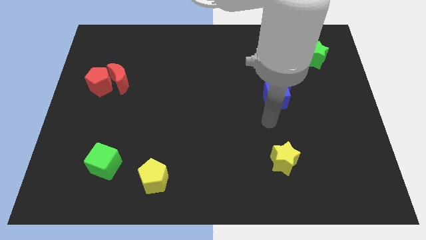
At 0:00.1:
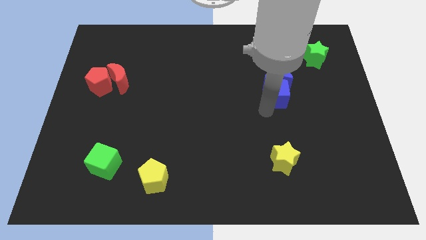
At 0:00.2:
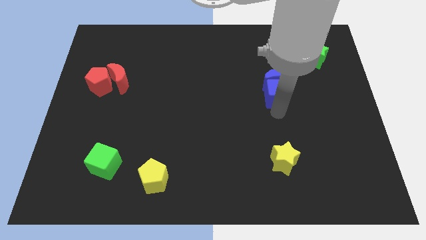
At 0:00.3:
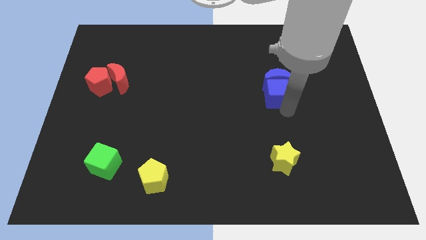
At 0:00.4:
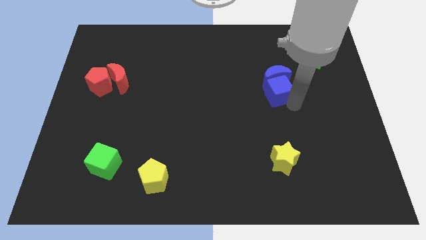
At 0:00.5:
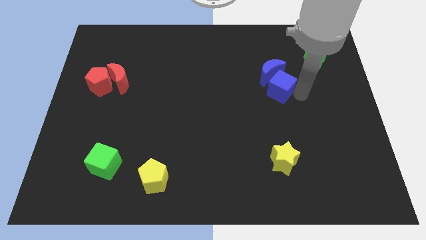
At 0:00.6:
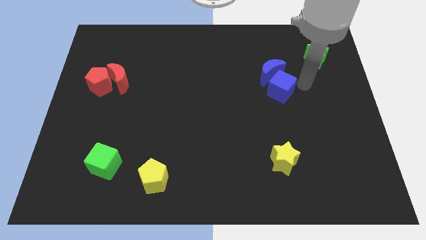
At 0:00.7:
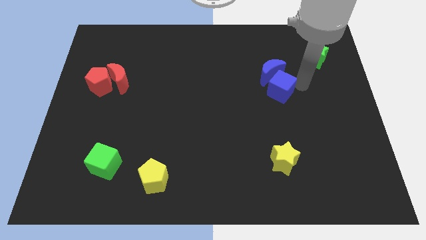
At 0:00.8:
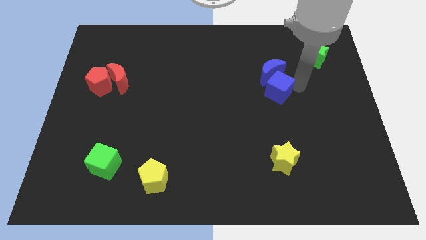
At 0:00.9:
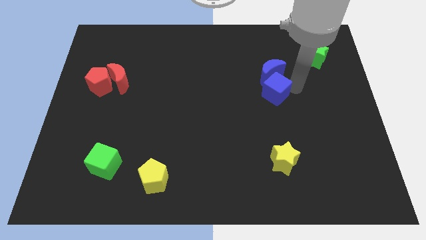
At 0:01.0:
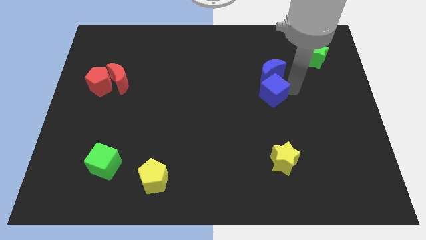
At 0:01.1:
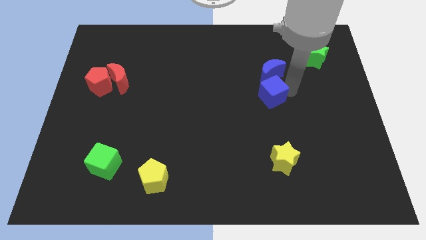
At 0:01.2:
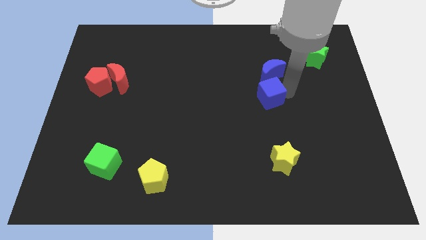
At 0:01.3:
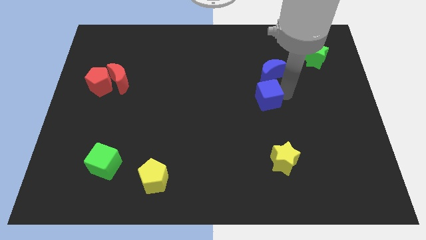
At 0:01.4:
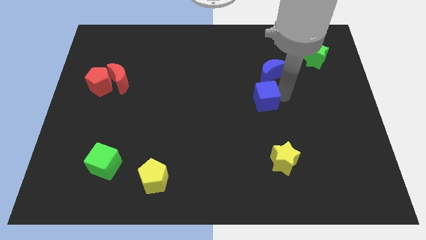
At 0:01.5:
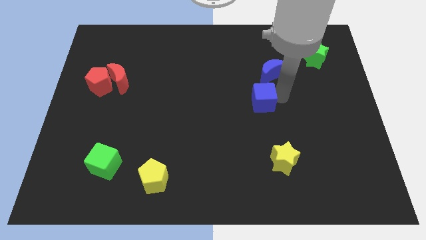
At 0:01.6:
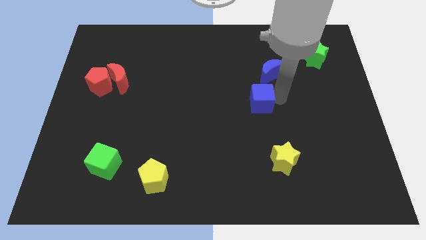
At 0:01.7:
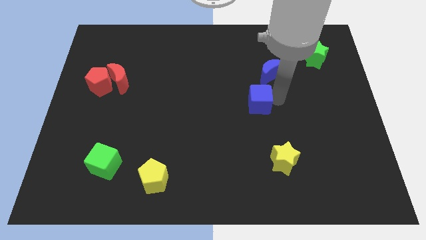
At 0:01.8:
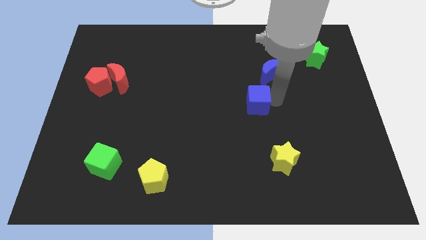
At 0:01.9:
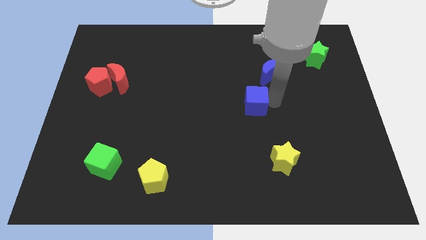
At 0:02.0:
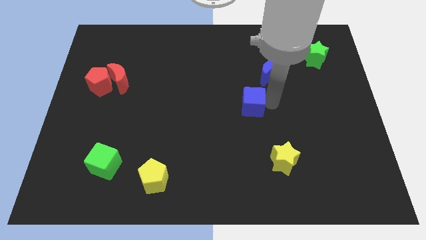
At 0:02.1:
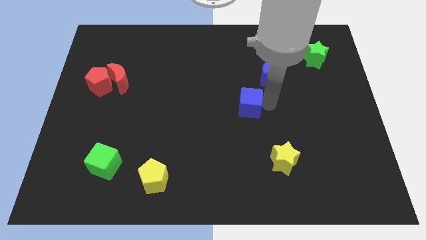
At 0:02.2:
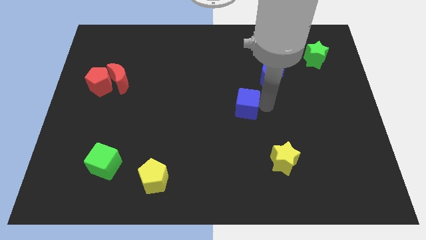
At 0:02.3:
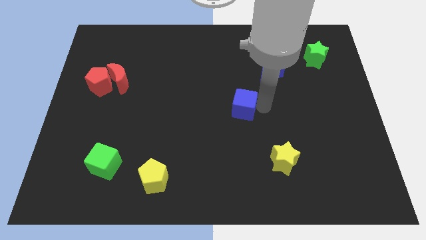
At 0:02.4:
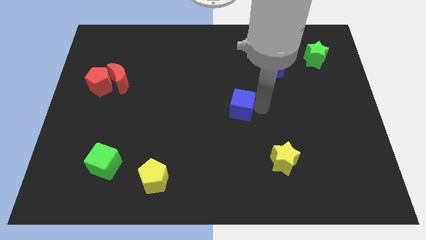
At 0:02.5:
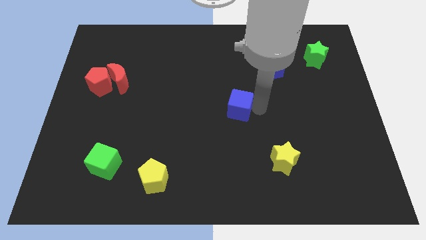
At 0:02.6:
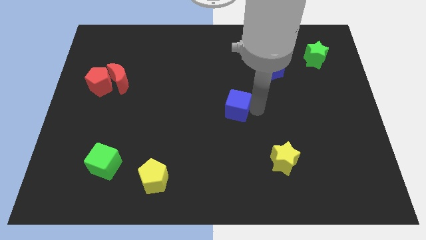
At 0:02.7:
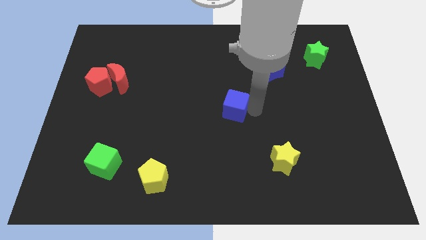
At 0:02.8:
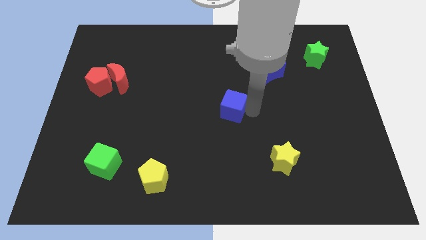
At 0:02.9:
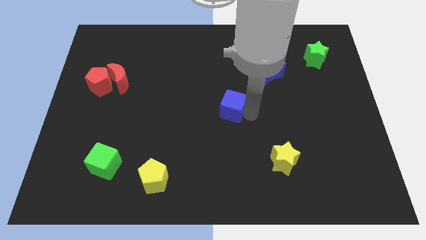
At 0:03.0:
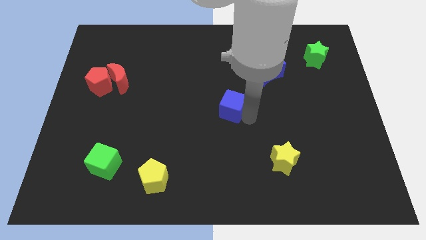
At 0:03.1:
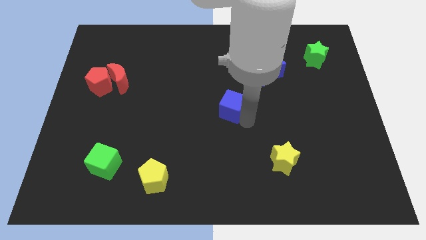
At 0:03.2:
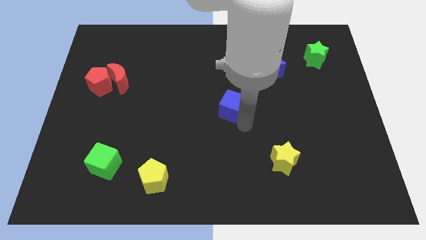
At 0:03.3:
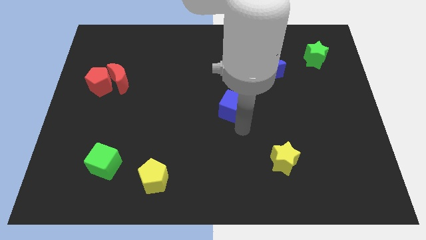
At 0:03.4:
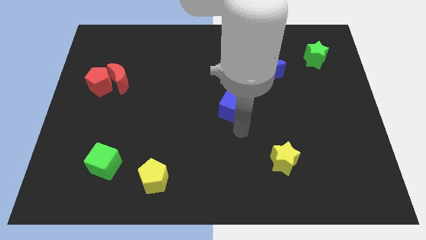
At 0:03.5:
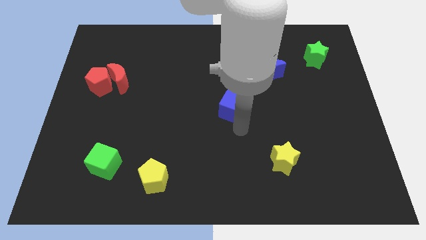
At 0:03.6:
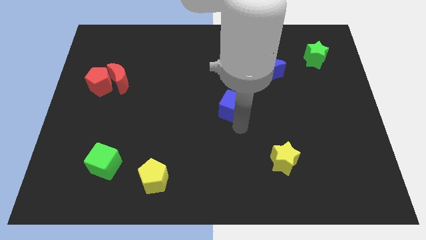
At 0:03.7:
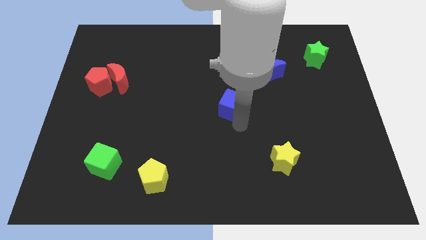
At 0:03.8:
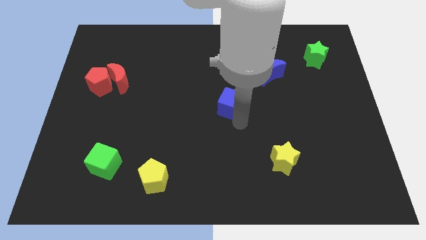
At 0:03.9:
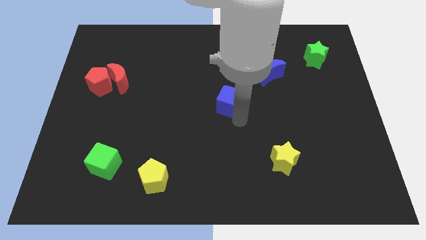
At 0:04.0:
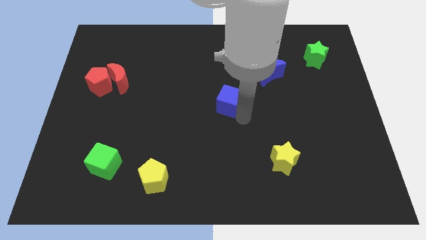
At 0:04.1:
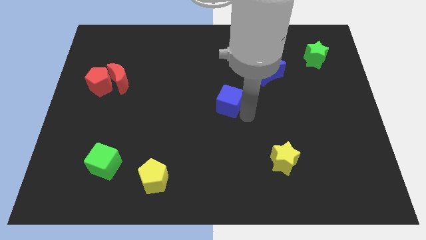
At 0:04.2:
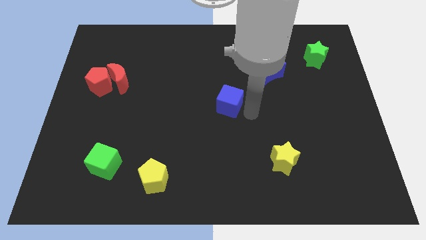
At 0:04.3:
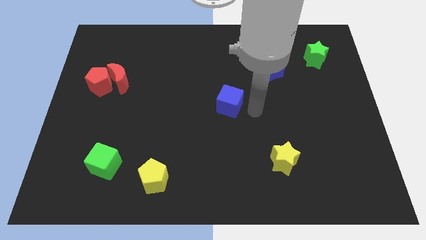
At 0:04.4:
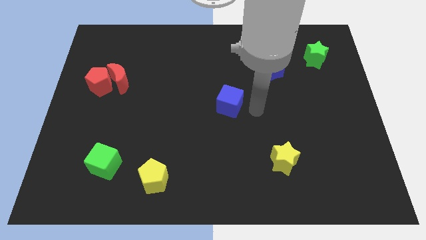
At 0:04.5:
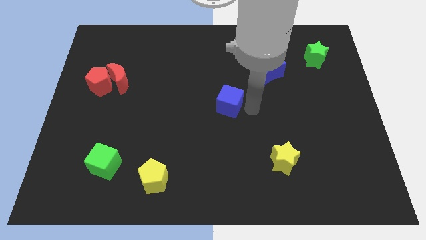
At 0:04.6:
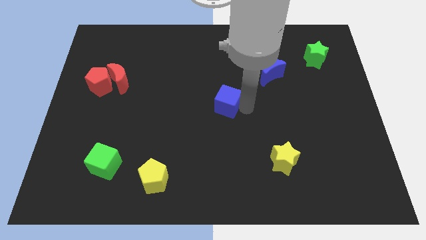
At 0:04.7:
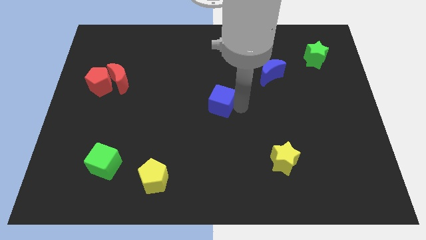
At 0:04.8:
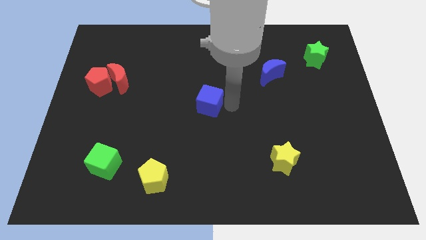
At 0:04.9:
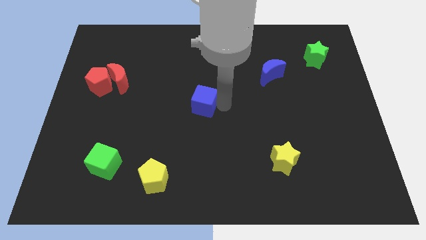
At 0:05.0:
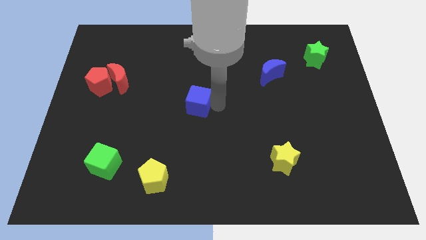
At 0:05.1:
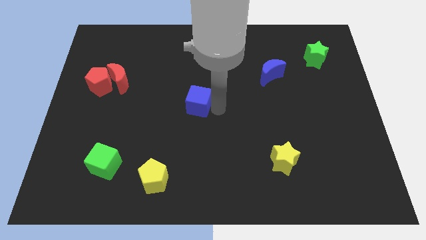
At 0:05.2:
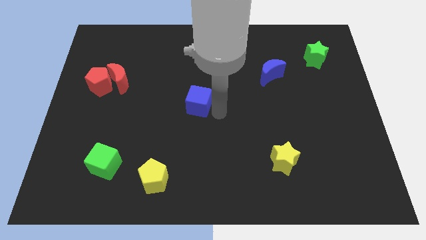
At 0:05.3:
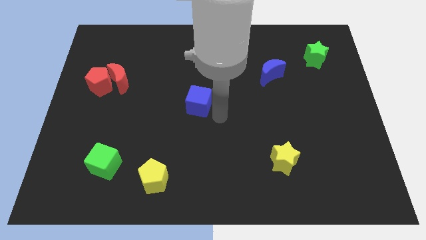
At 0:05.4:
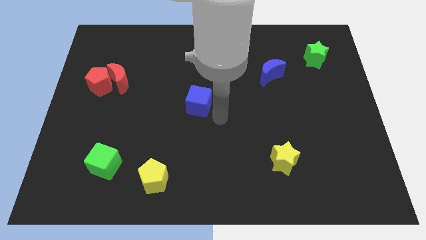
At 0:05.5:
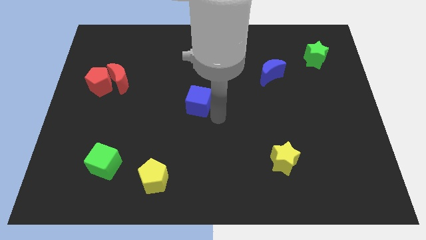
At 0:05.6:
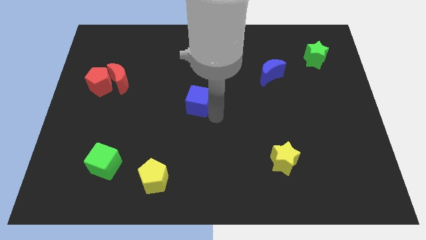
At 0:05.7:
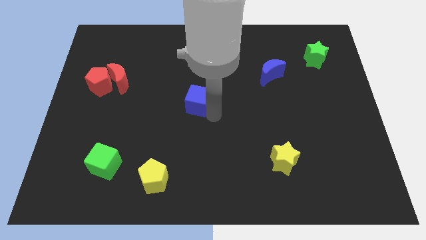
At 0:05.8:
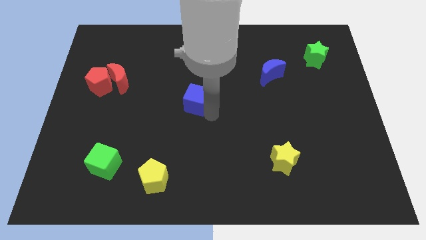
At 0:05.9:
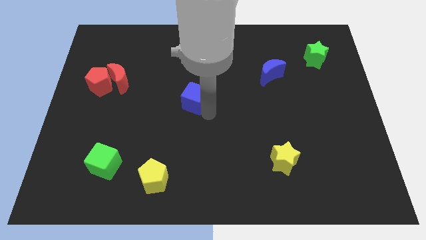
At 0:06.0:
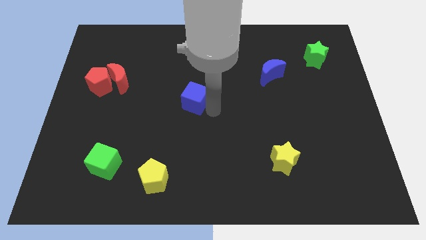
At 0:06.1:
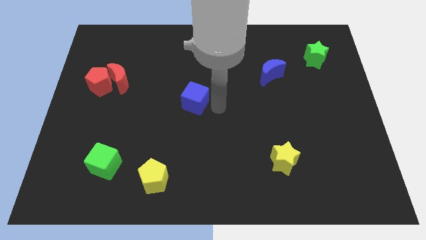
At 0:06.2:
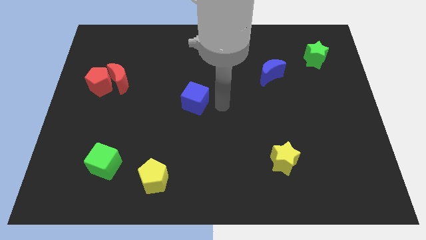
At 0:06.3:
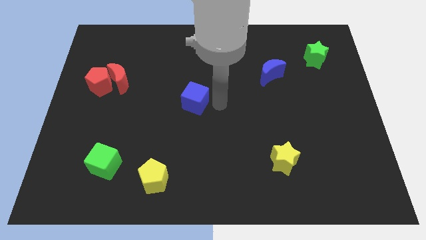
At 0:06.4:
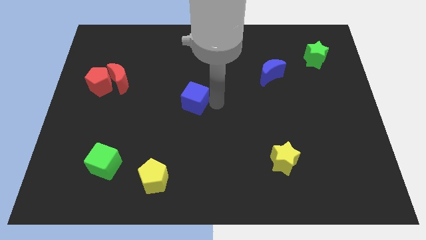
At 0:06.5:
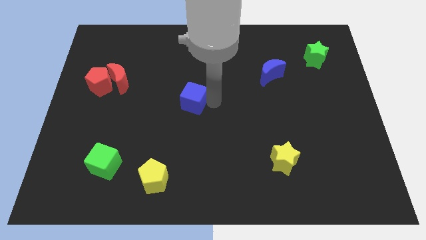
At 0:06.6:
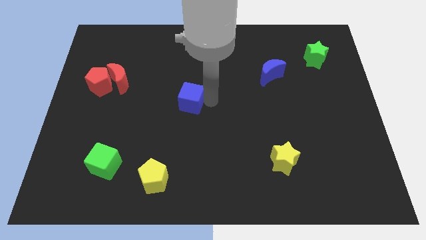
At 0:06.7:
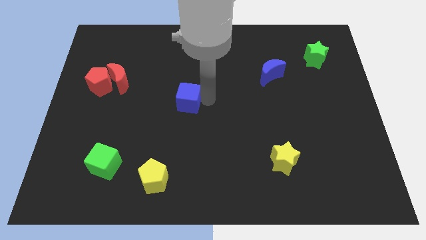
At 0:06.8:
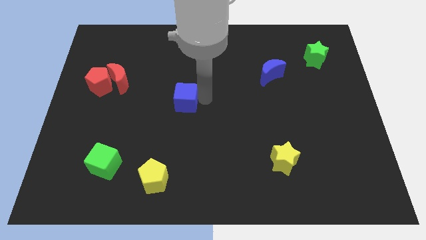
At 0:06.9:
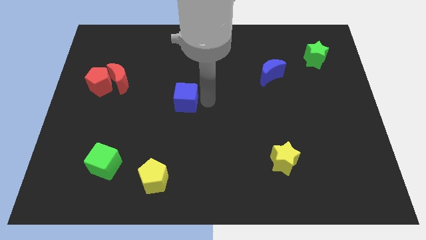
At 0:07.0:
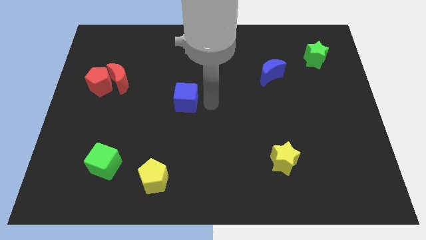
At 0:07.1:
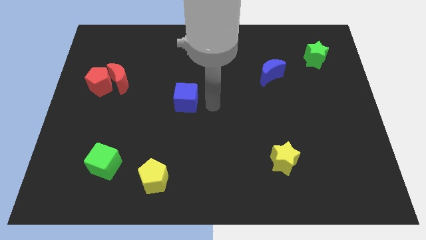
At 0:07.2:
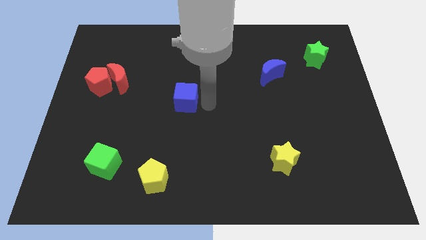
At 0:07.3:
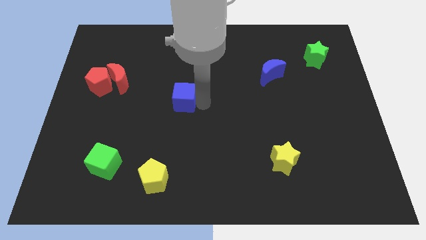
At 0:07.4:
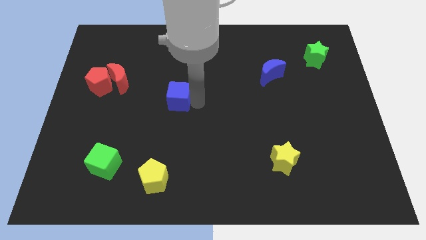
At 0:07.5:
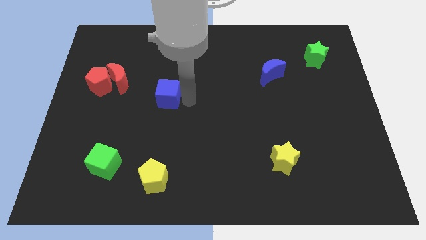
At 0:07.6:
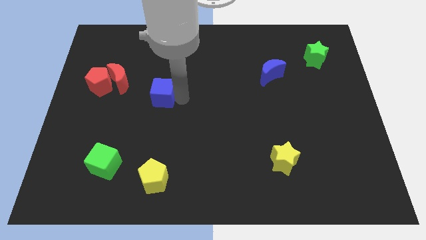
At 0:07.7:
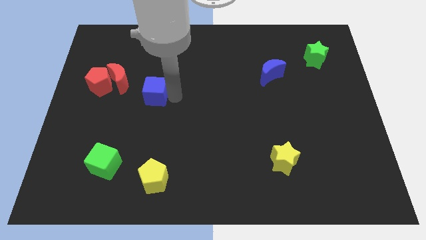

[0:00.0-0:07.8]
push the blue cube to the bottom right of the red moon
